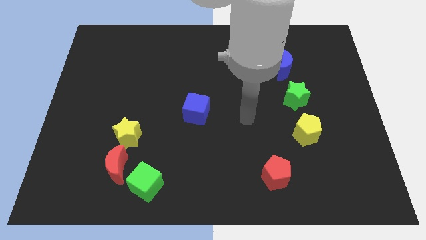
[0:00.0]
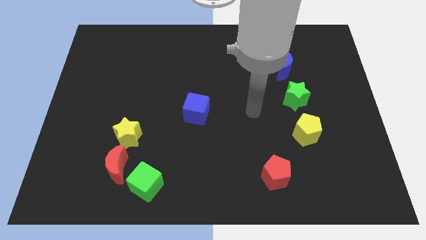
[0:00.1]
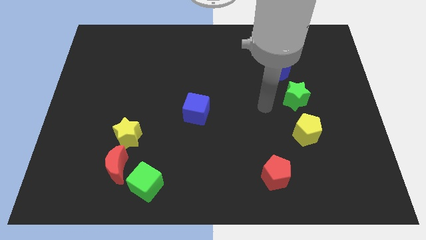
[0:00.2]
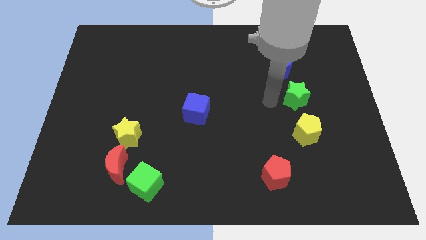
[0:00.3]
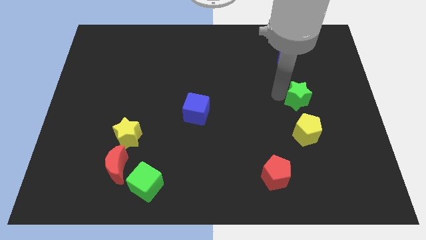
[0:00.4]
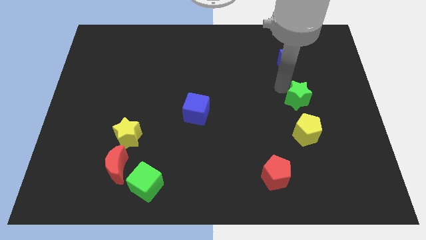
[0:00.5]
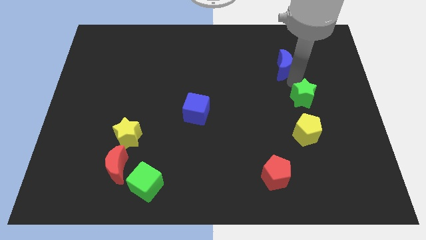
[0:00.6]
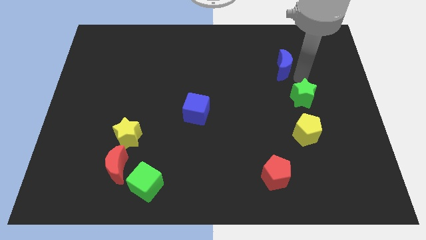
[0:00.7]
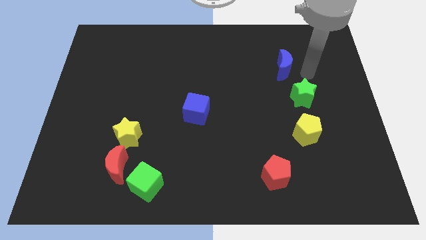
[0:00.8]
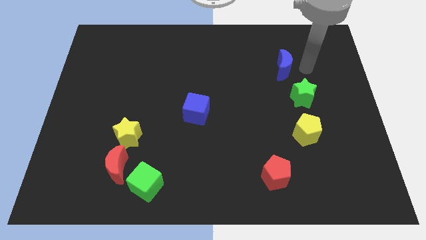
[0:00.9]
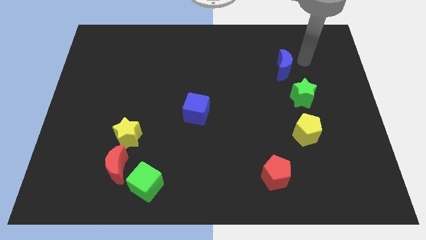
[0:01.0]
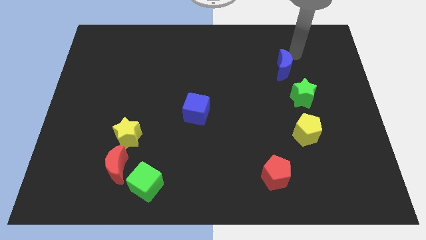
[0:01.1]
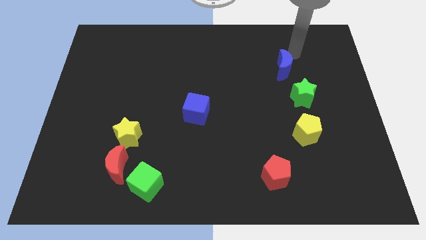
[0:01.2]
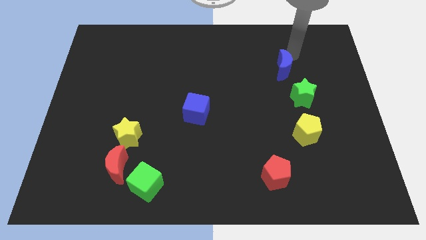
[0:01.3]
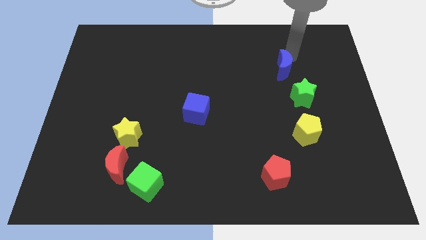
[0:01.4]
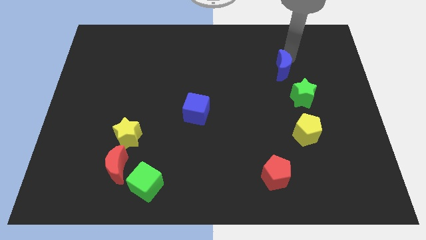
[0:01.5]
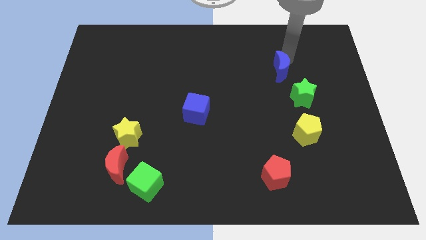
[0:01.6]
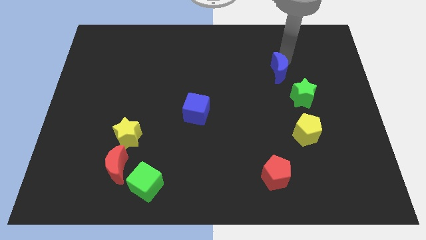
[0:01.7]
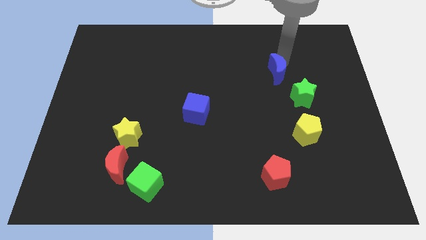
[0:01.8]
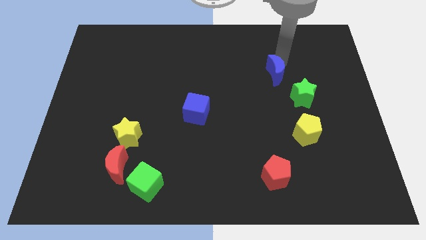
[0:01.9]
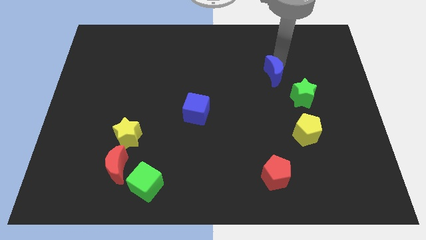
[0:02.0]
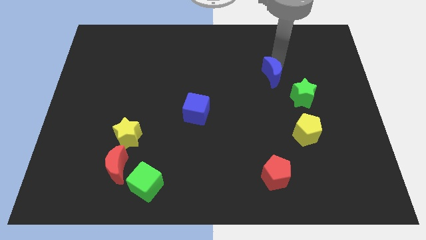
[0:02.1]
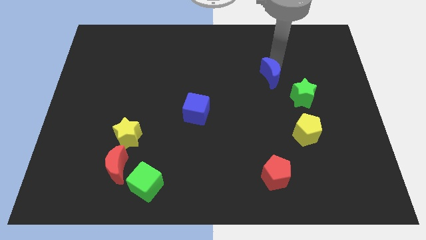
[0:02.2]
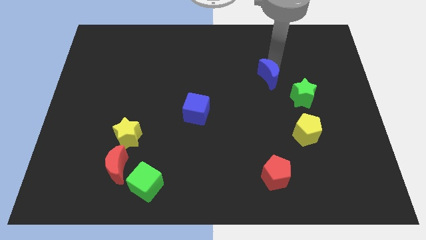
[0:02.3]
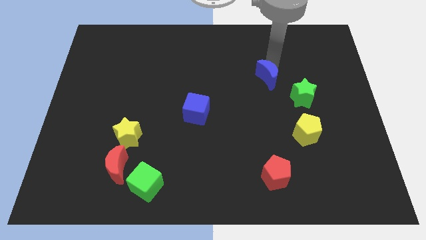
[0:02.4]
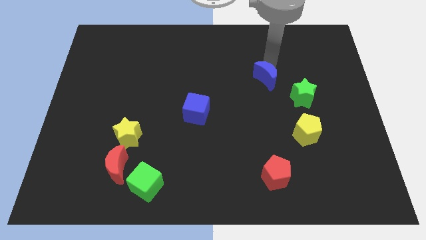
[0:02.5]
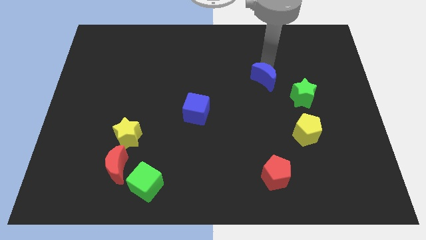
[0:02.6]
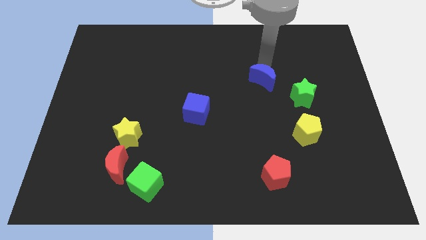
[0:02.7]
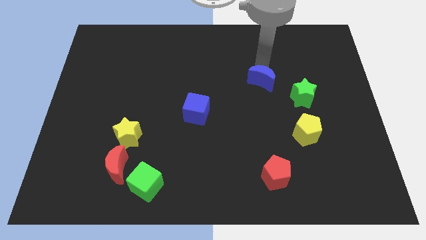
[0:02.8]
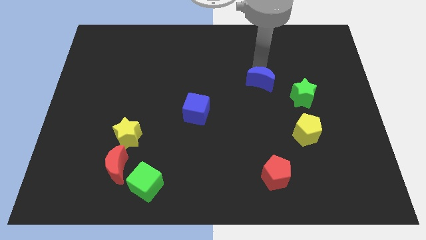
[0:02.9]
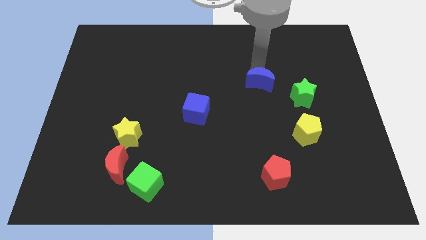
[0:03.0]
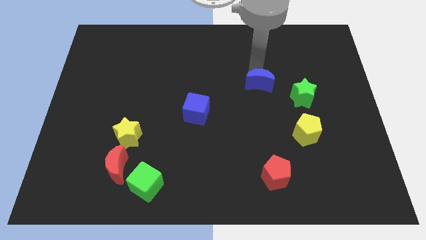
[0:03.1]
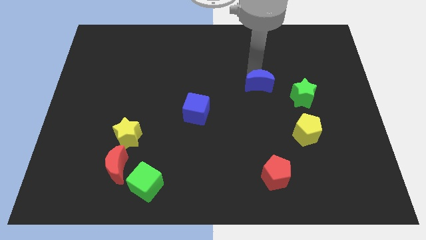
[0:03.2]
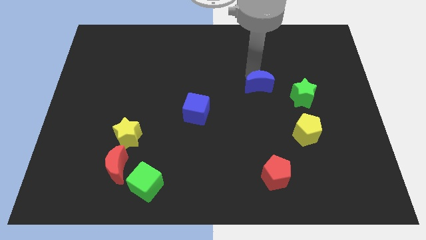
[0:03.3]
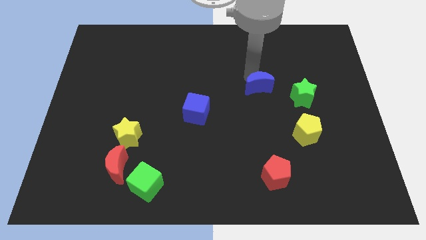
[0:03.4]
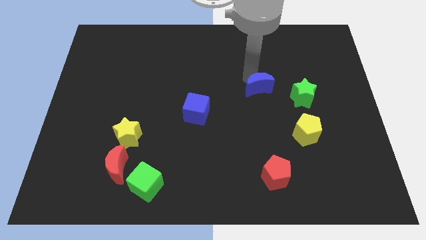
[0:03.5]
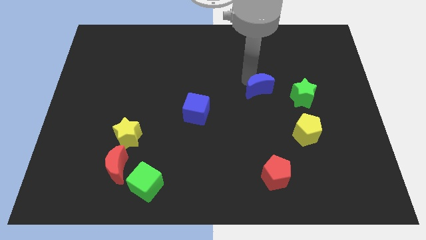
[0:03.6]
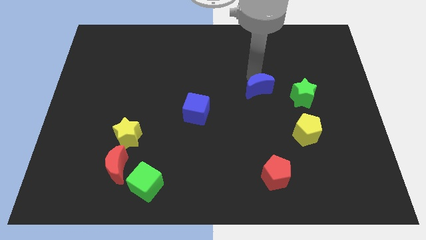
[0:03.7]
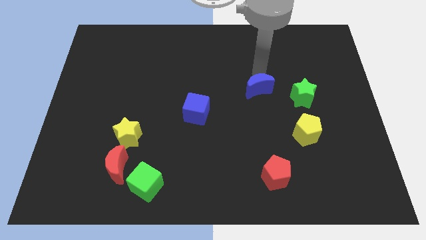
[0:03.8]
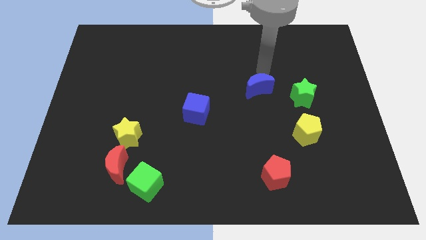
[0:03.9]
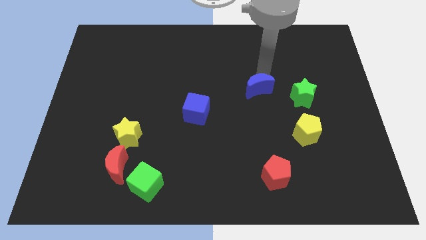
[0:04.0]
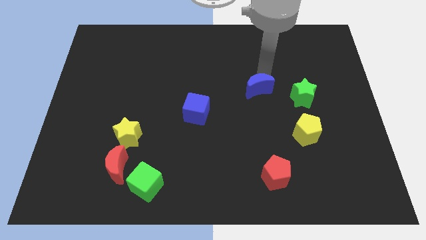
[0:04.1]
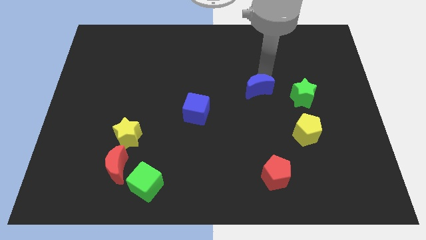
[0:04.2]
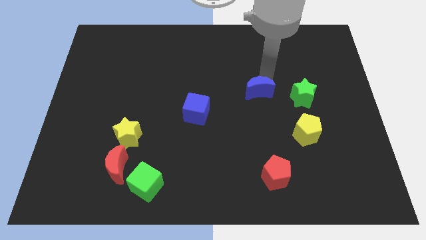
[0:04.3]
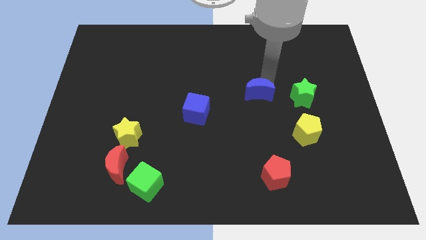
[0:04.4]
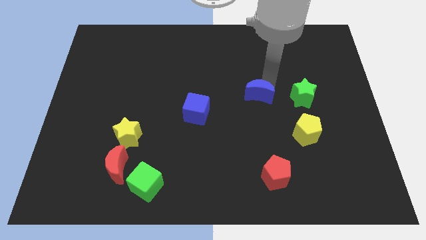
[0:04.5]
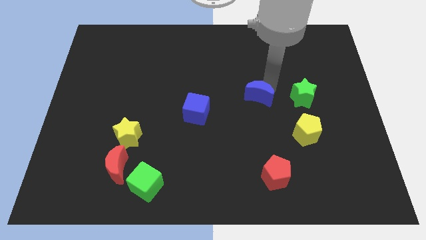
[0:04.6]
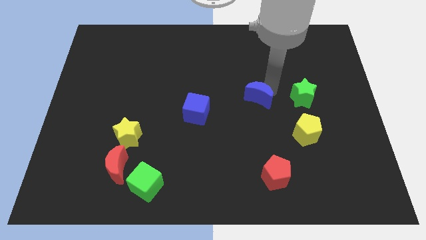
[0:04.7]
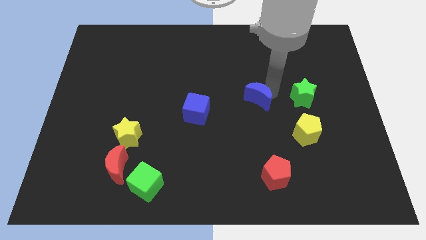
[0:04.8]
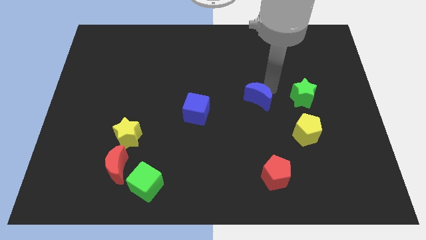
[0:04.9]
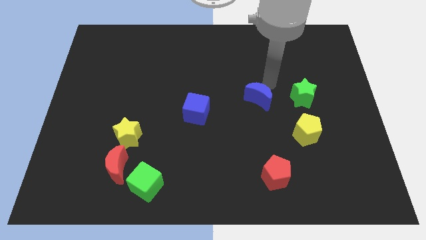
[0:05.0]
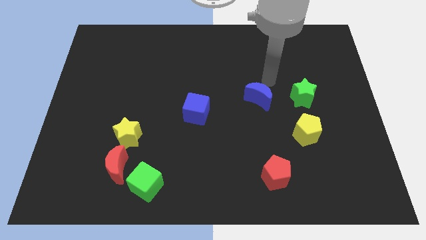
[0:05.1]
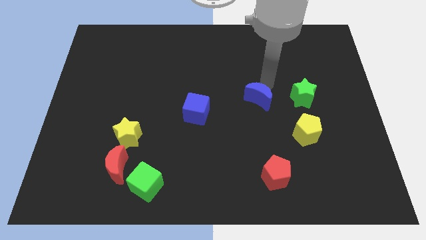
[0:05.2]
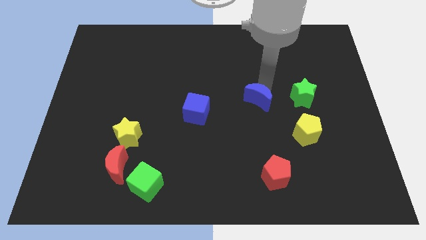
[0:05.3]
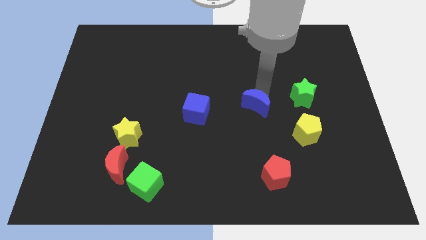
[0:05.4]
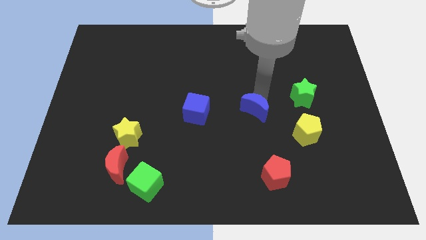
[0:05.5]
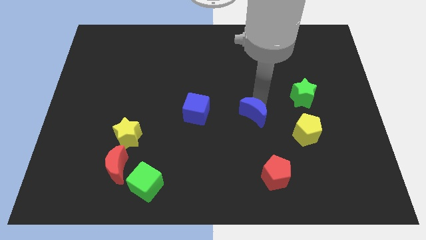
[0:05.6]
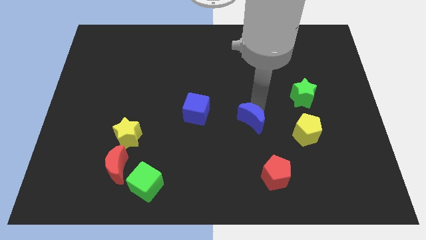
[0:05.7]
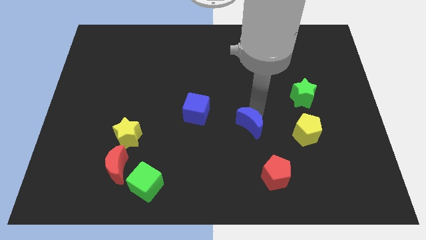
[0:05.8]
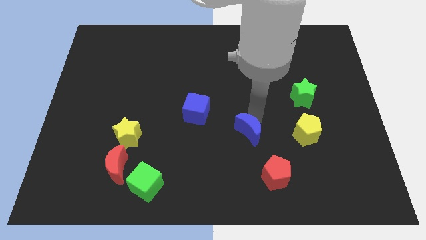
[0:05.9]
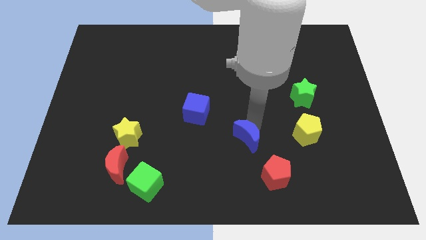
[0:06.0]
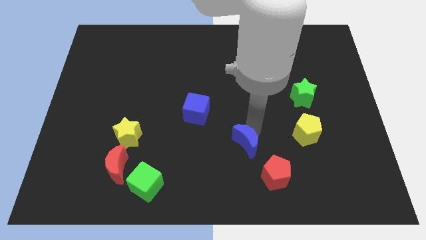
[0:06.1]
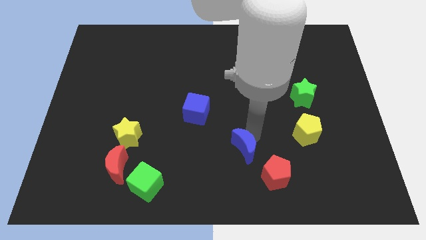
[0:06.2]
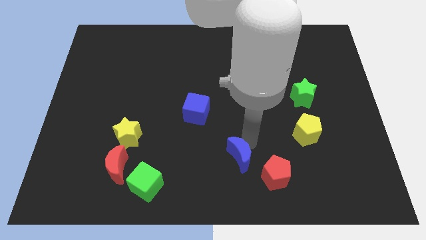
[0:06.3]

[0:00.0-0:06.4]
put the blue moon to the left of the red pentagon
